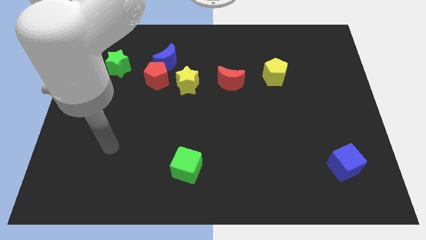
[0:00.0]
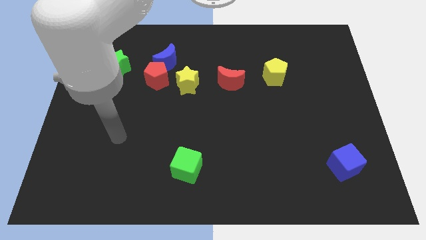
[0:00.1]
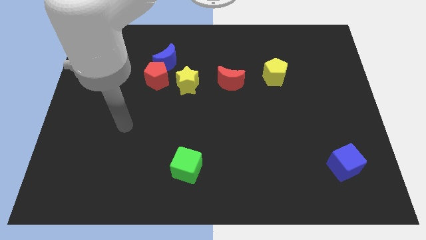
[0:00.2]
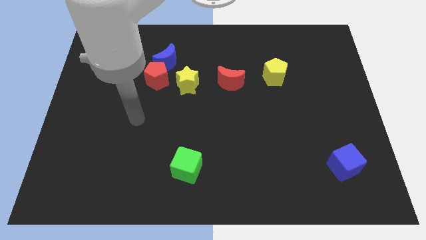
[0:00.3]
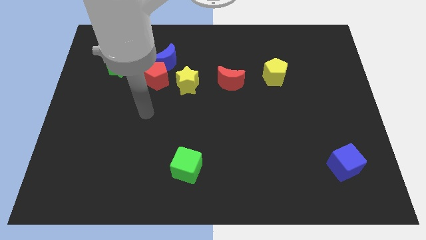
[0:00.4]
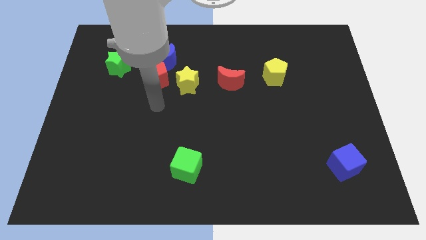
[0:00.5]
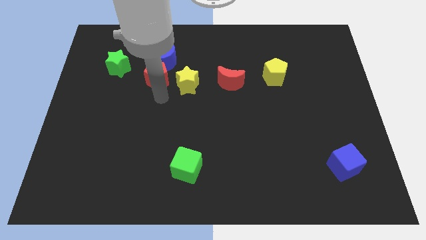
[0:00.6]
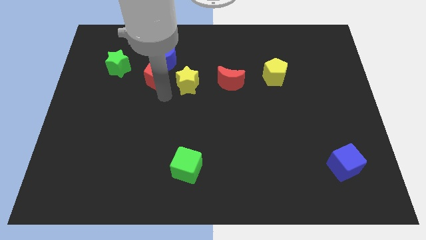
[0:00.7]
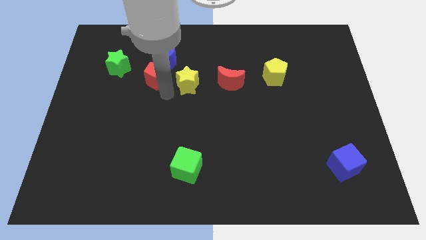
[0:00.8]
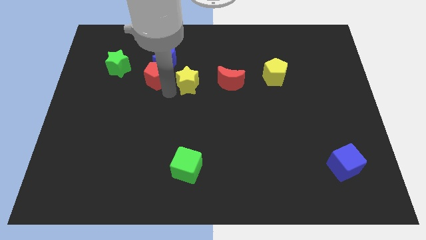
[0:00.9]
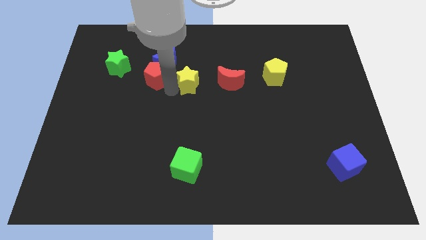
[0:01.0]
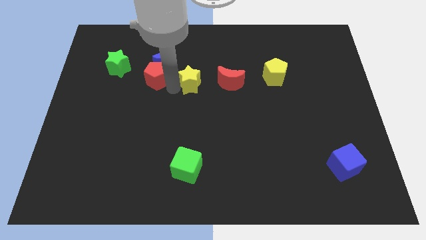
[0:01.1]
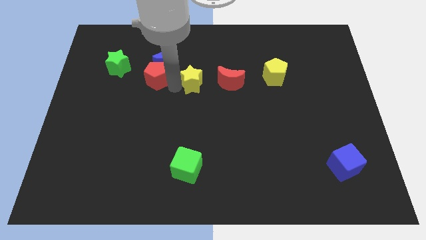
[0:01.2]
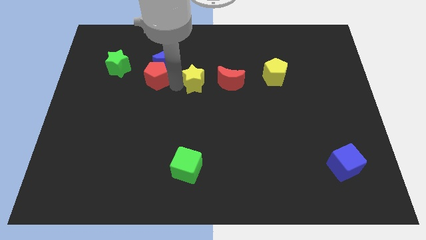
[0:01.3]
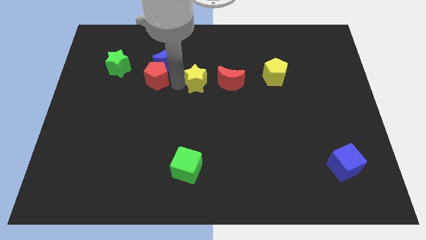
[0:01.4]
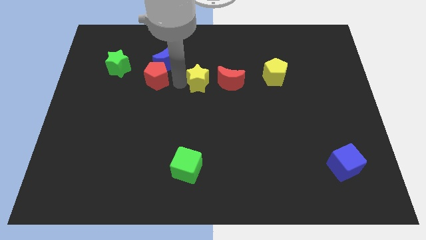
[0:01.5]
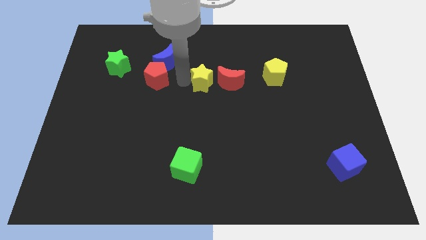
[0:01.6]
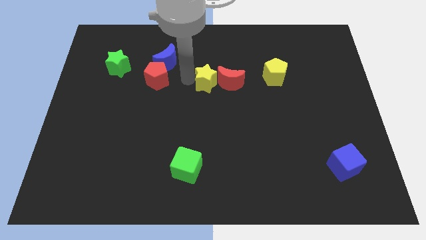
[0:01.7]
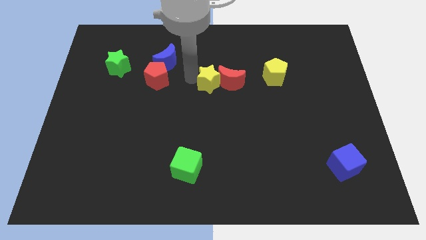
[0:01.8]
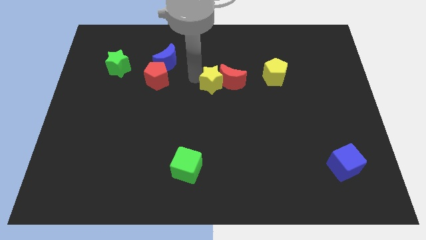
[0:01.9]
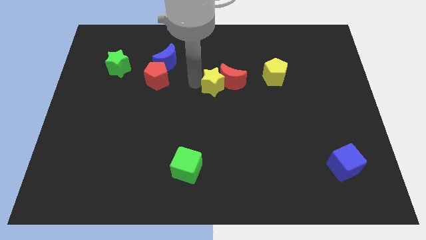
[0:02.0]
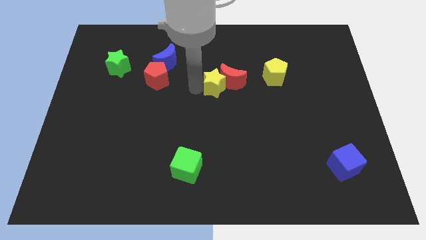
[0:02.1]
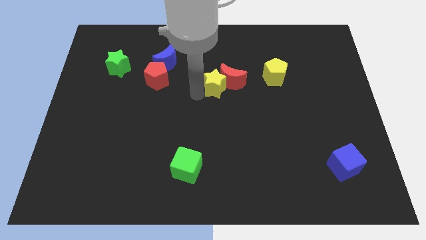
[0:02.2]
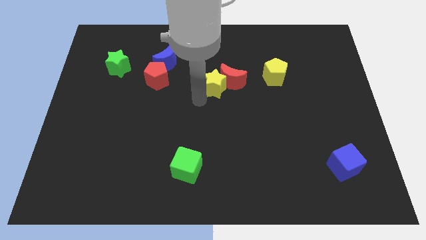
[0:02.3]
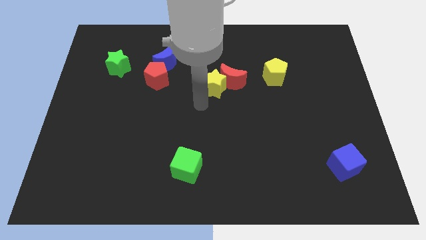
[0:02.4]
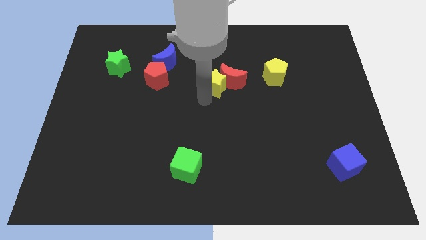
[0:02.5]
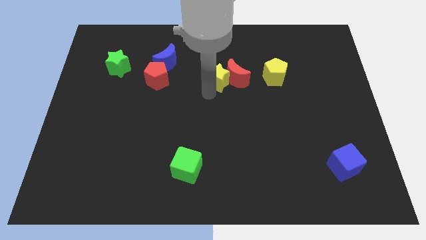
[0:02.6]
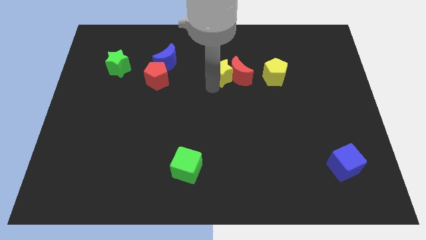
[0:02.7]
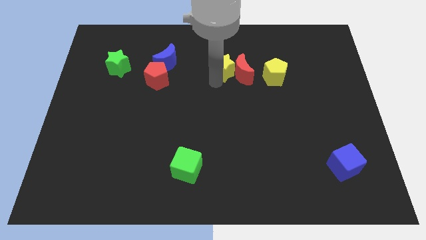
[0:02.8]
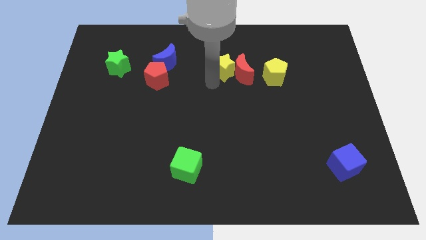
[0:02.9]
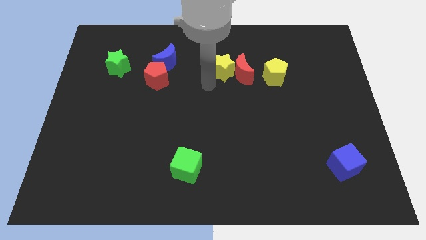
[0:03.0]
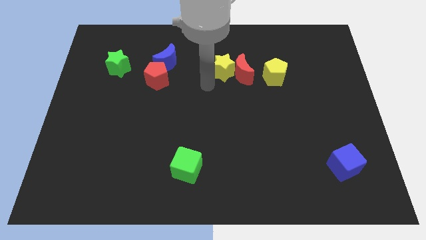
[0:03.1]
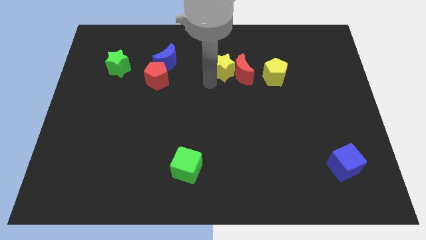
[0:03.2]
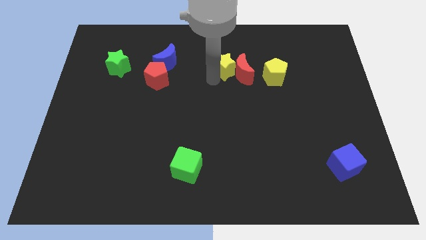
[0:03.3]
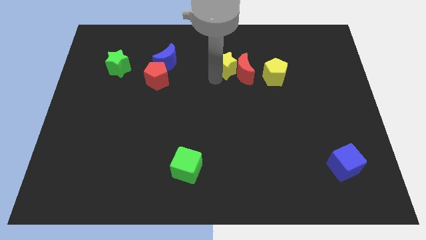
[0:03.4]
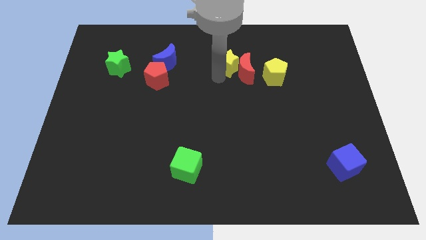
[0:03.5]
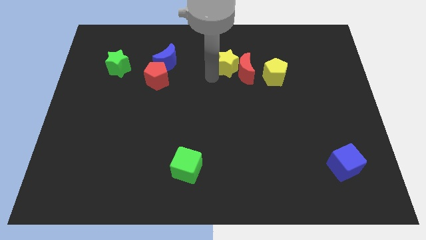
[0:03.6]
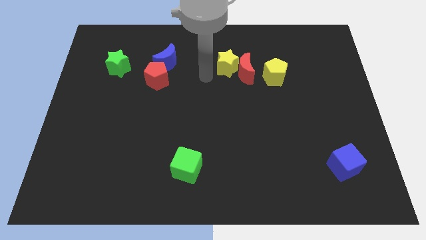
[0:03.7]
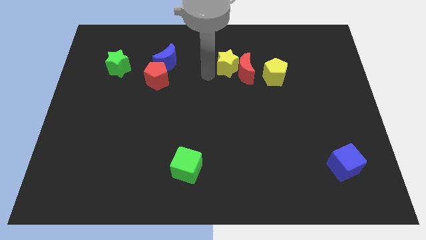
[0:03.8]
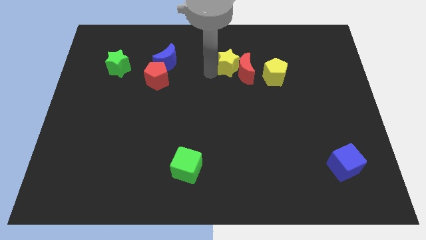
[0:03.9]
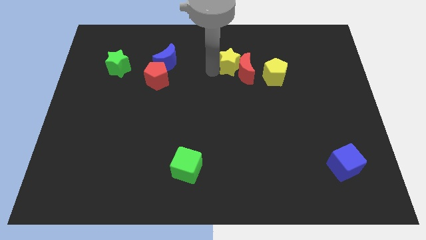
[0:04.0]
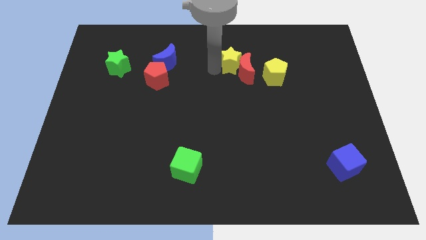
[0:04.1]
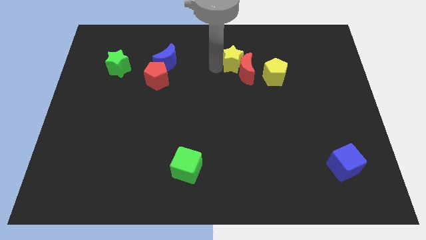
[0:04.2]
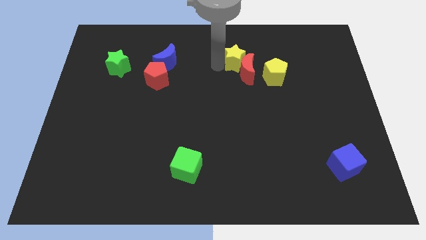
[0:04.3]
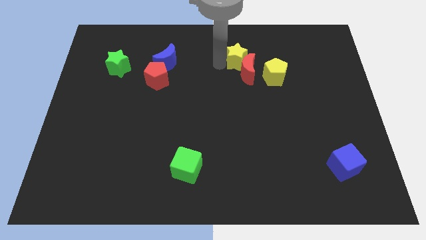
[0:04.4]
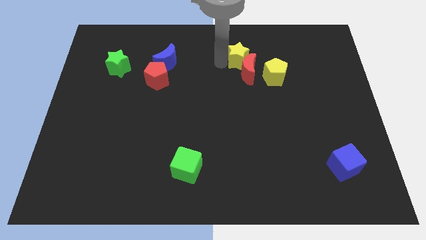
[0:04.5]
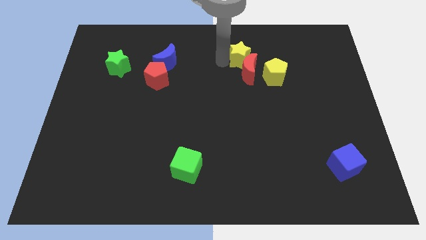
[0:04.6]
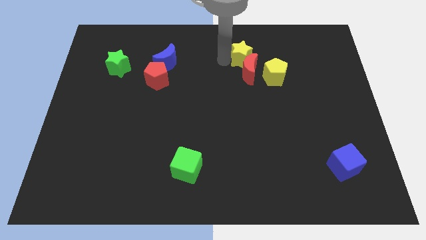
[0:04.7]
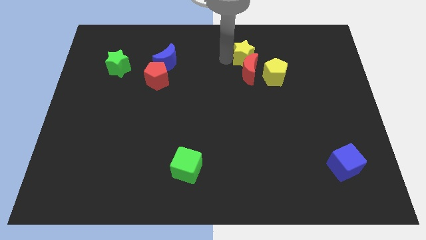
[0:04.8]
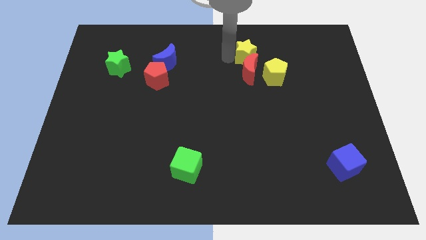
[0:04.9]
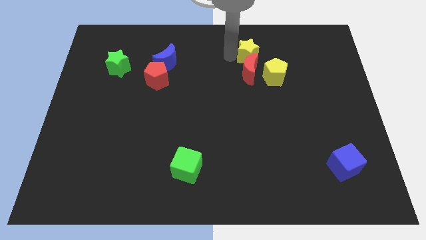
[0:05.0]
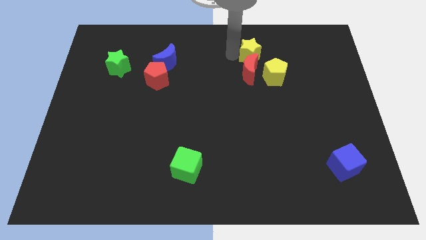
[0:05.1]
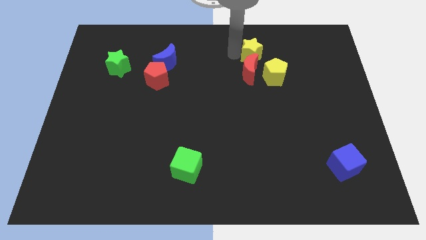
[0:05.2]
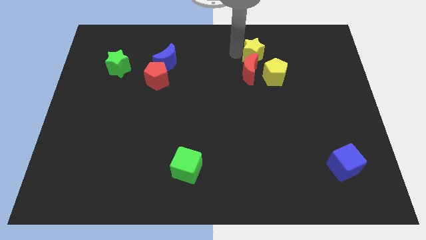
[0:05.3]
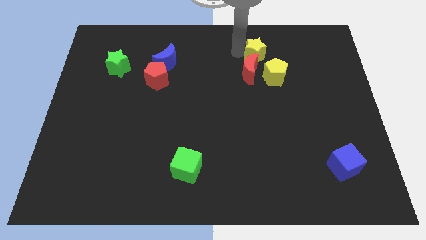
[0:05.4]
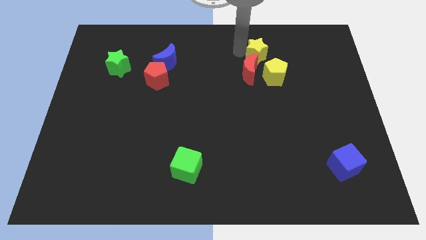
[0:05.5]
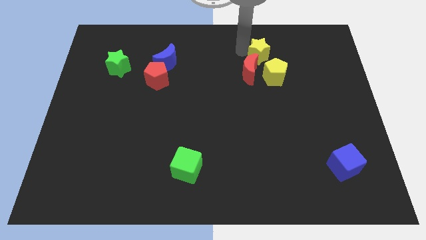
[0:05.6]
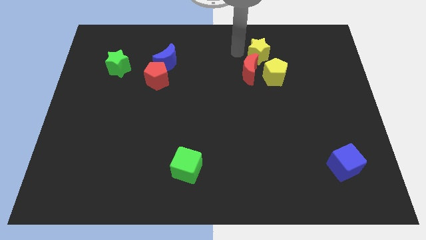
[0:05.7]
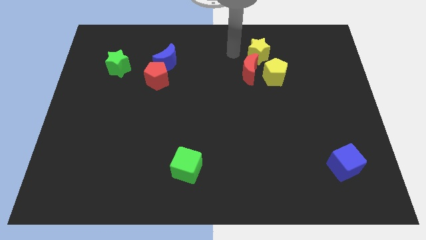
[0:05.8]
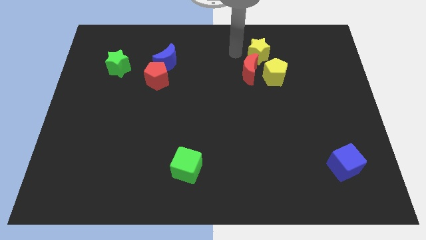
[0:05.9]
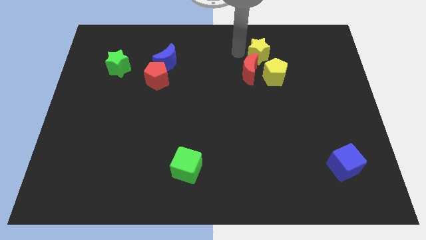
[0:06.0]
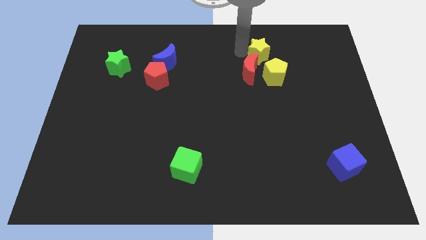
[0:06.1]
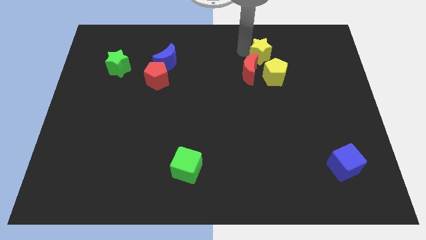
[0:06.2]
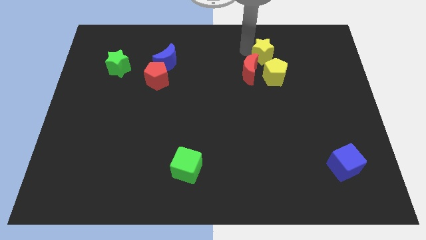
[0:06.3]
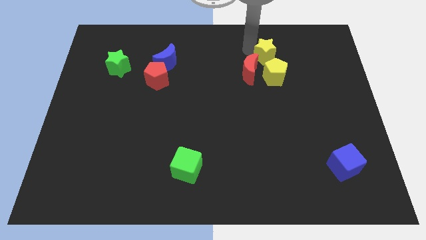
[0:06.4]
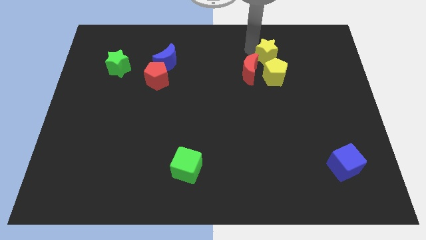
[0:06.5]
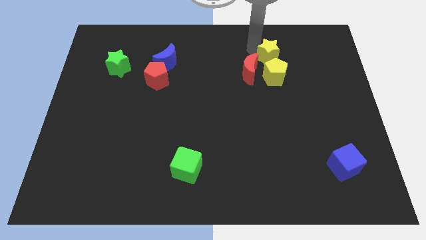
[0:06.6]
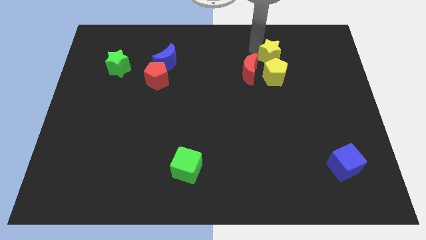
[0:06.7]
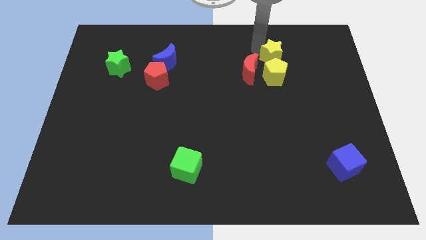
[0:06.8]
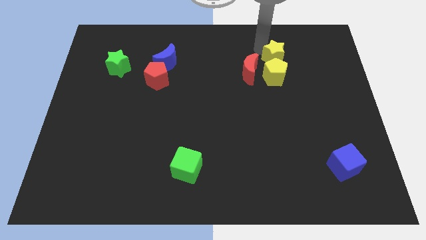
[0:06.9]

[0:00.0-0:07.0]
push the yellow star to the top right side of the yellow pentagon
